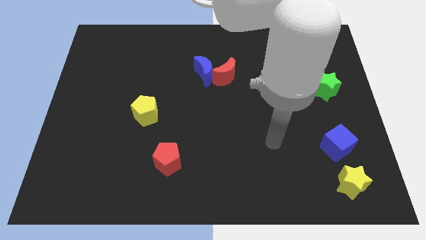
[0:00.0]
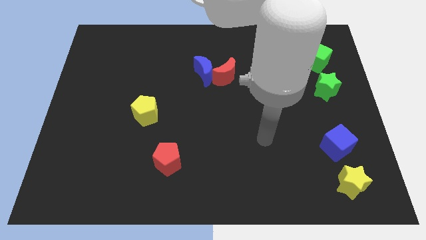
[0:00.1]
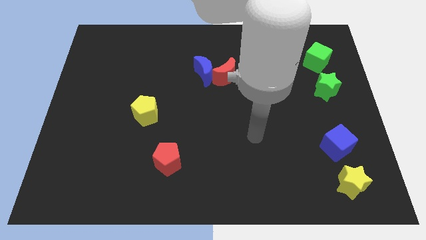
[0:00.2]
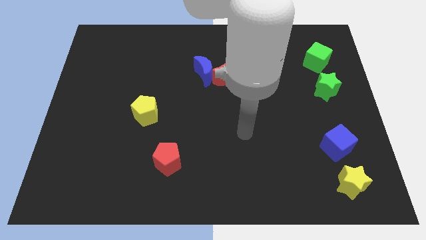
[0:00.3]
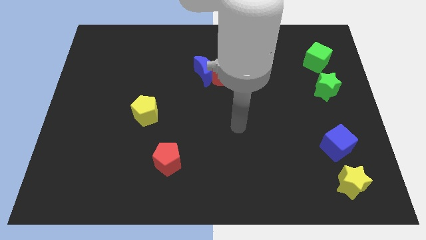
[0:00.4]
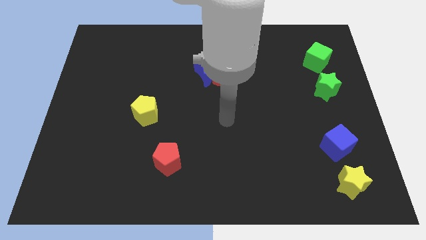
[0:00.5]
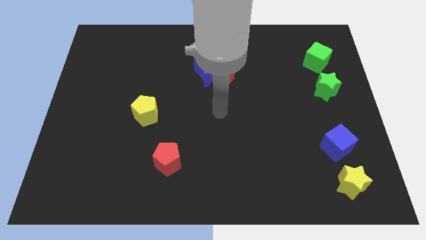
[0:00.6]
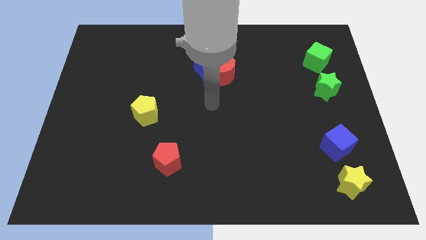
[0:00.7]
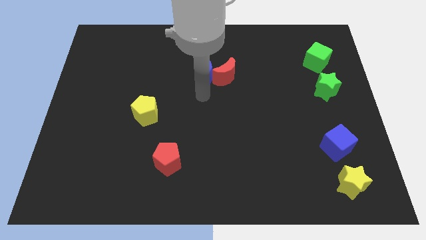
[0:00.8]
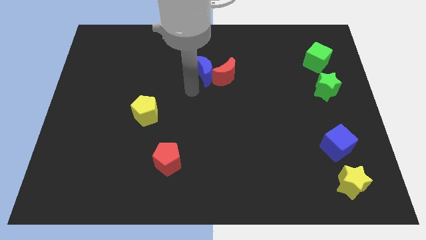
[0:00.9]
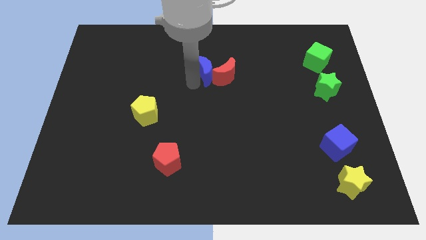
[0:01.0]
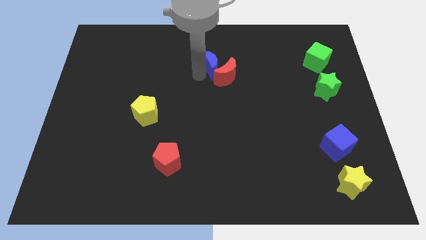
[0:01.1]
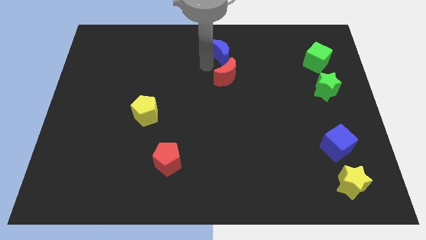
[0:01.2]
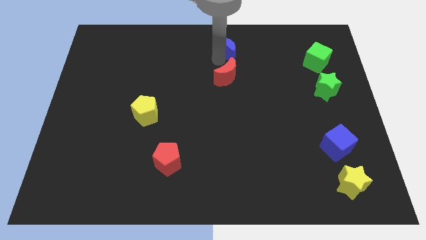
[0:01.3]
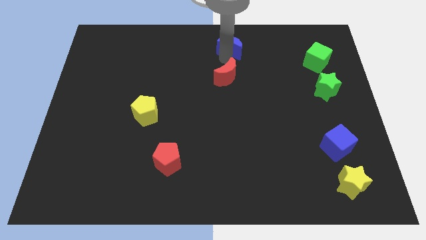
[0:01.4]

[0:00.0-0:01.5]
pull the red moon apart from the blue moon

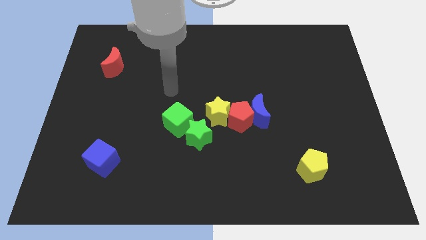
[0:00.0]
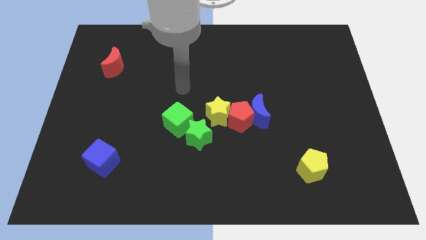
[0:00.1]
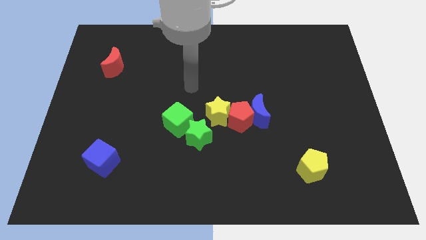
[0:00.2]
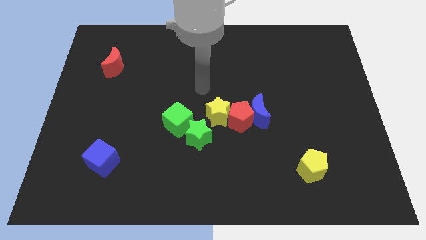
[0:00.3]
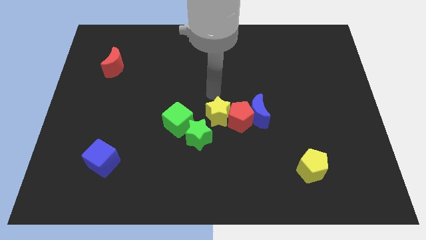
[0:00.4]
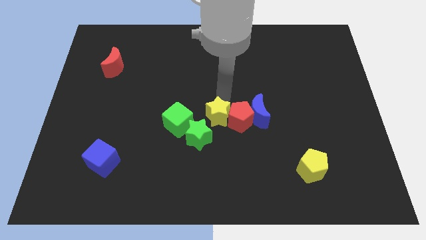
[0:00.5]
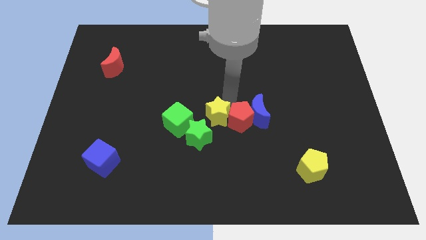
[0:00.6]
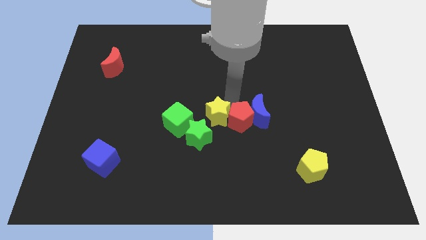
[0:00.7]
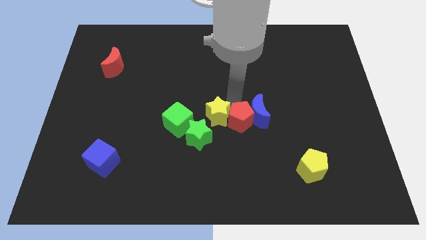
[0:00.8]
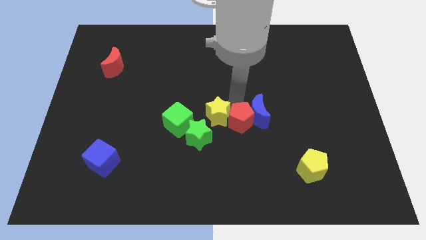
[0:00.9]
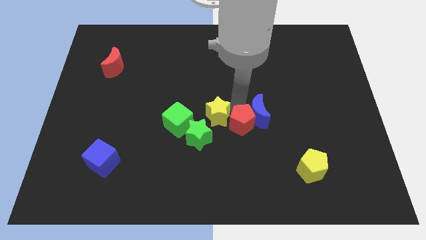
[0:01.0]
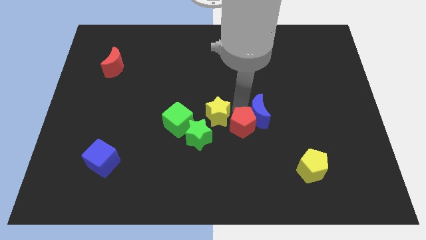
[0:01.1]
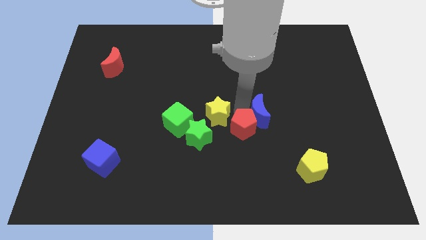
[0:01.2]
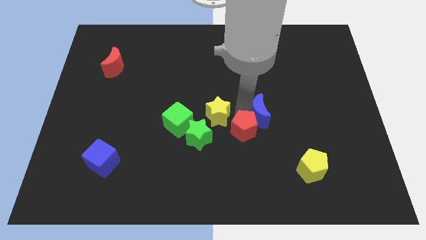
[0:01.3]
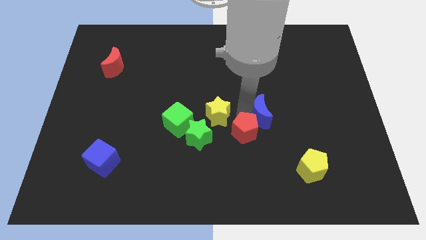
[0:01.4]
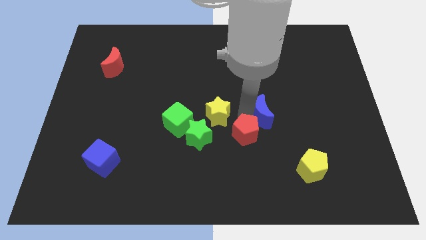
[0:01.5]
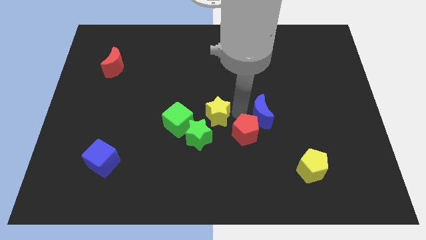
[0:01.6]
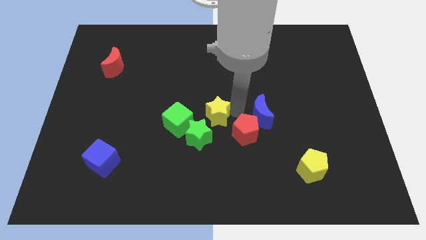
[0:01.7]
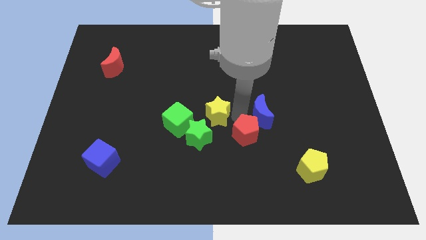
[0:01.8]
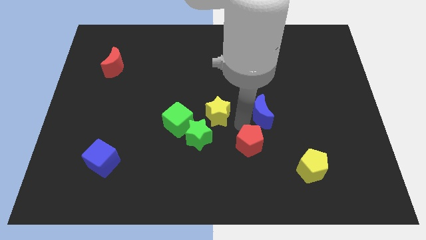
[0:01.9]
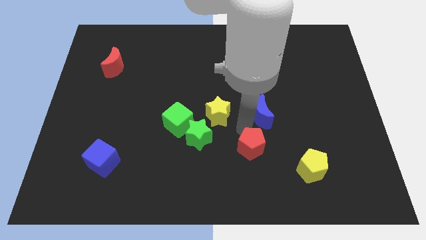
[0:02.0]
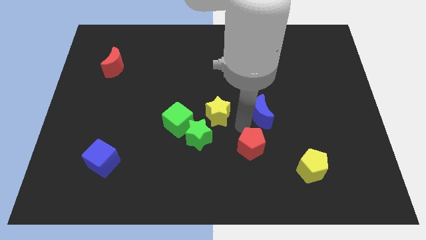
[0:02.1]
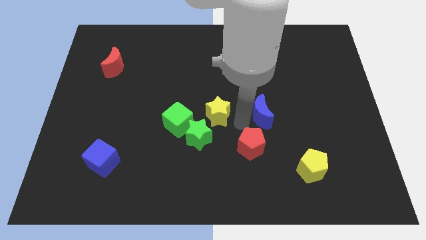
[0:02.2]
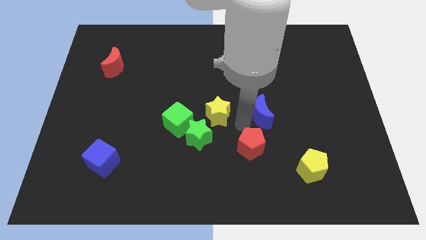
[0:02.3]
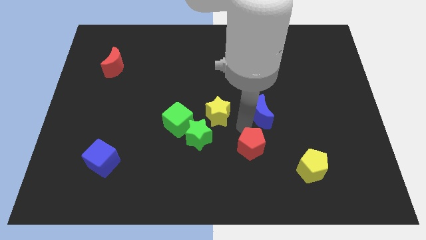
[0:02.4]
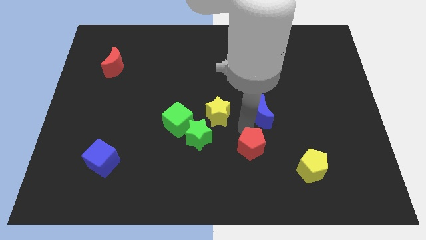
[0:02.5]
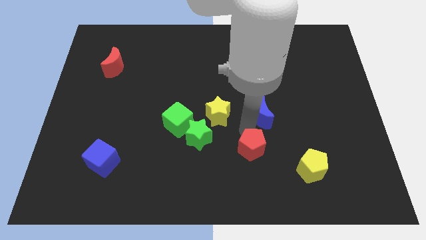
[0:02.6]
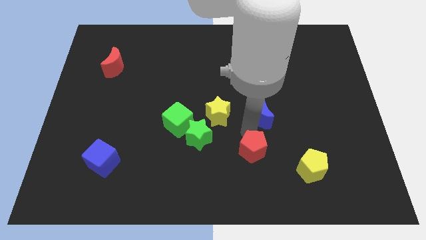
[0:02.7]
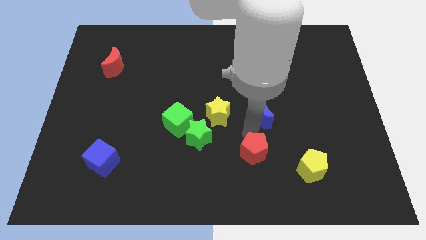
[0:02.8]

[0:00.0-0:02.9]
separate the red pentagon from the blue moon and yellow star

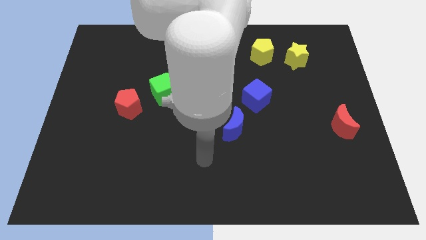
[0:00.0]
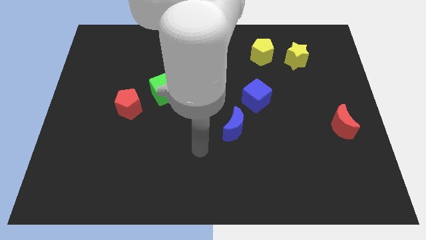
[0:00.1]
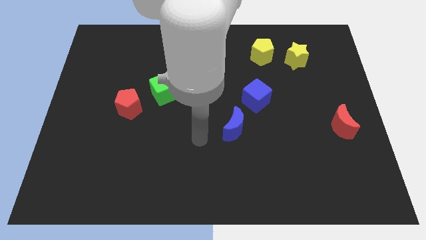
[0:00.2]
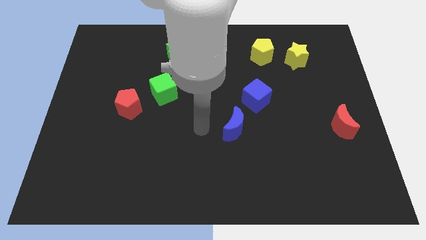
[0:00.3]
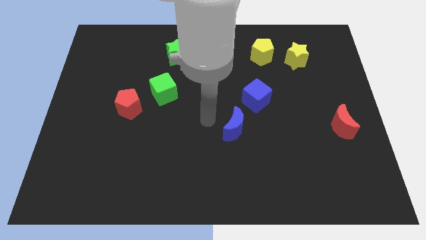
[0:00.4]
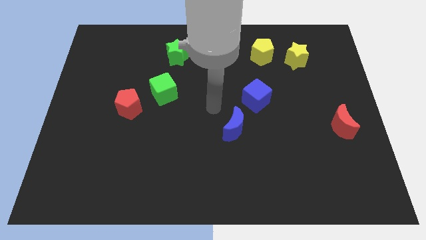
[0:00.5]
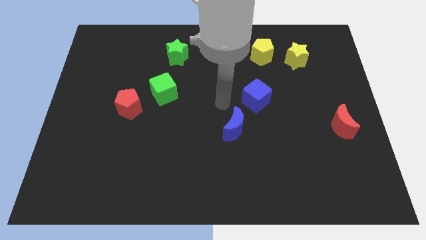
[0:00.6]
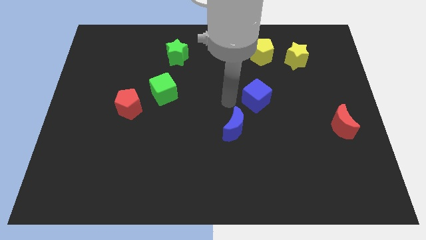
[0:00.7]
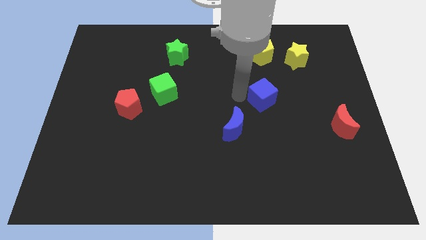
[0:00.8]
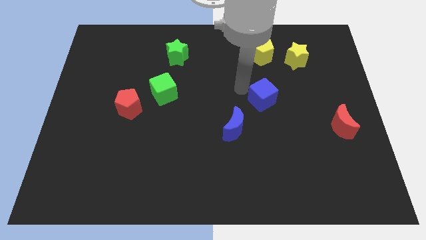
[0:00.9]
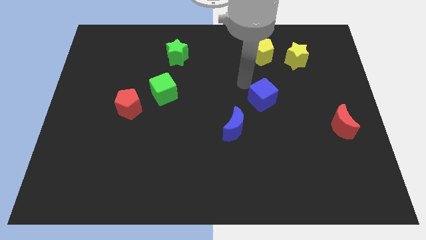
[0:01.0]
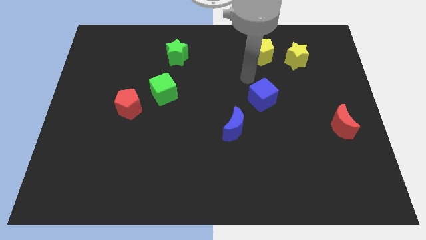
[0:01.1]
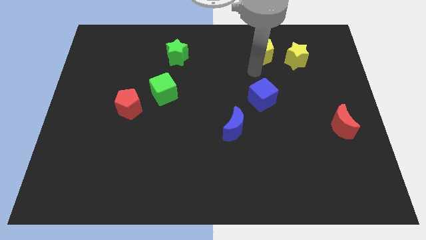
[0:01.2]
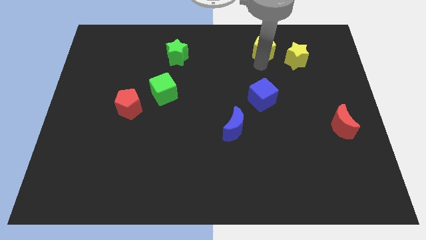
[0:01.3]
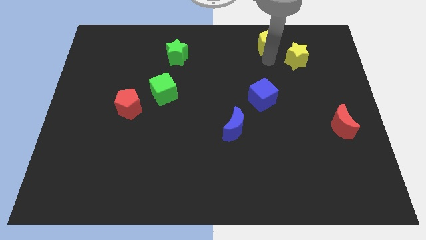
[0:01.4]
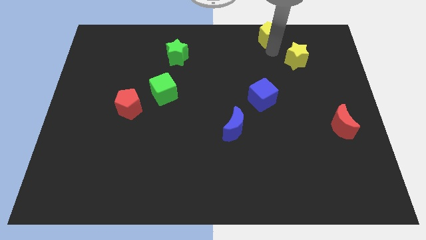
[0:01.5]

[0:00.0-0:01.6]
move the yellow star away from the yellow pentagon

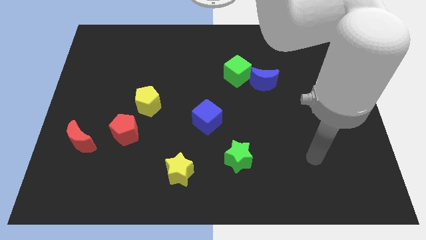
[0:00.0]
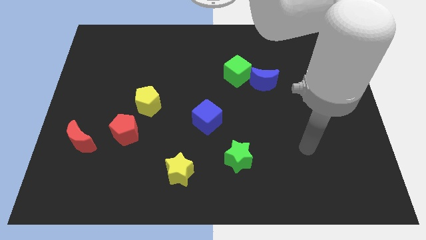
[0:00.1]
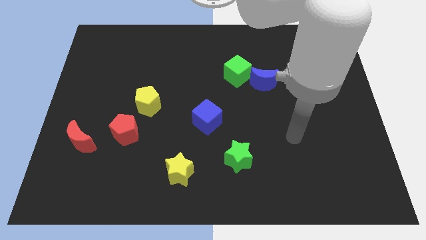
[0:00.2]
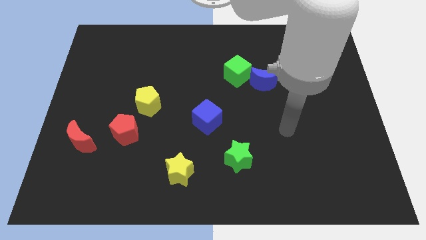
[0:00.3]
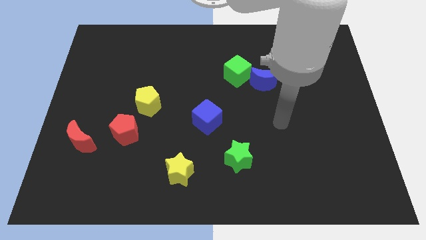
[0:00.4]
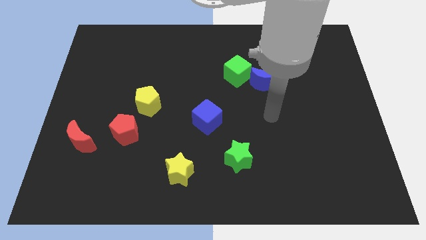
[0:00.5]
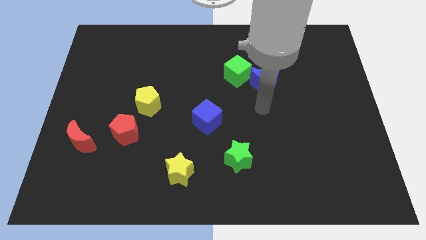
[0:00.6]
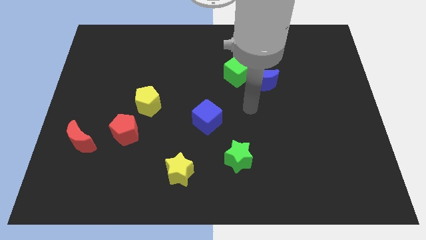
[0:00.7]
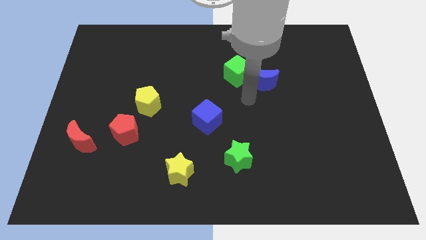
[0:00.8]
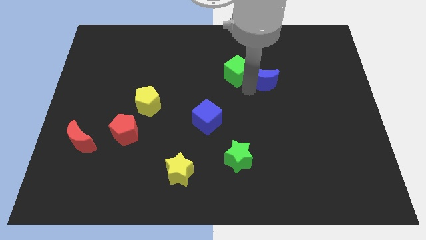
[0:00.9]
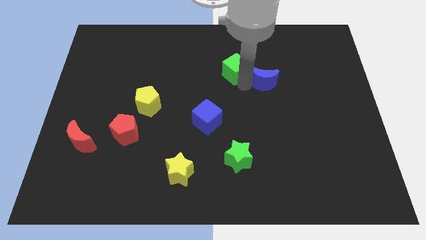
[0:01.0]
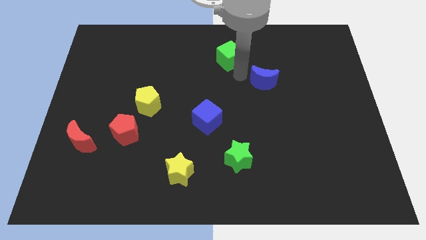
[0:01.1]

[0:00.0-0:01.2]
move the blue moon away from the green cube

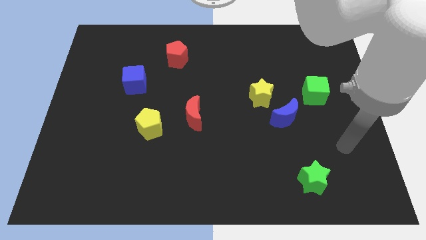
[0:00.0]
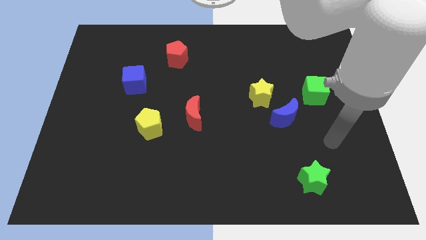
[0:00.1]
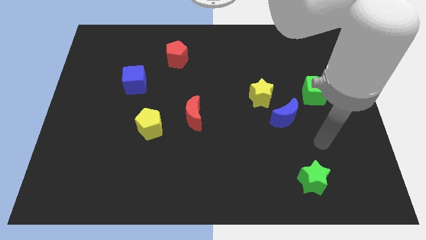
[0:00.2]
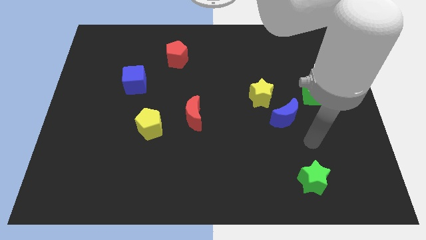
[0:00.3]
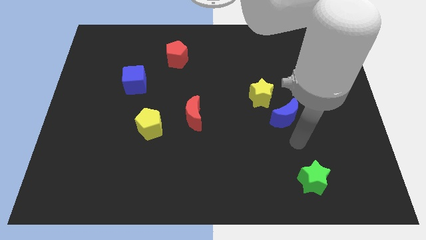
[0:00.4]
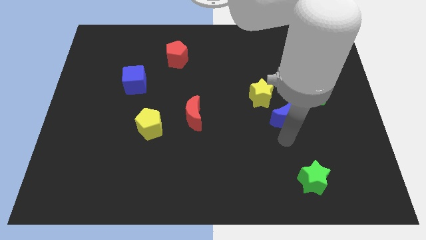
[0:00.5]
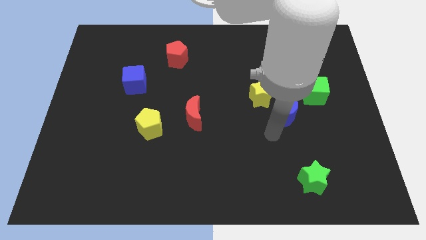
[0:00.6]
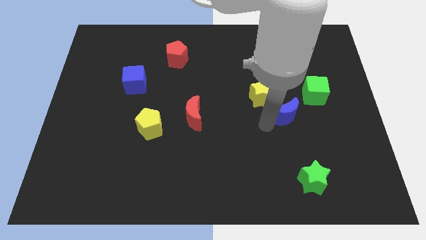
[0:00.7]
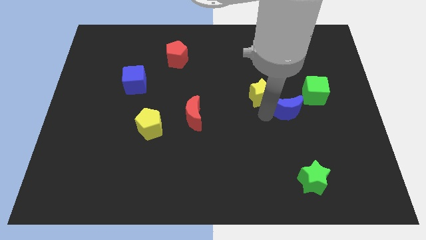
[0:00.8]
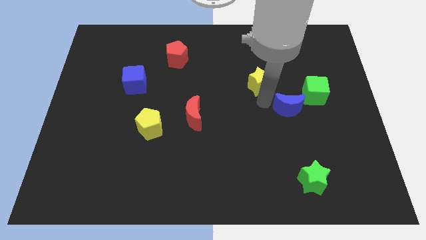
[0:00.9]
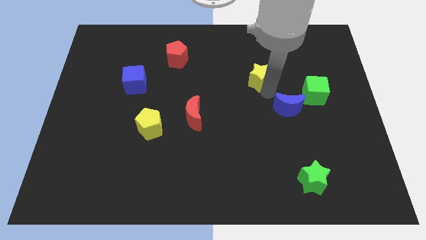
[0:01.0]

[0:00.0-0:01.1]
pull the blue moon apart from the yellow star

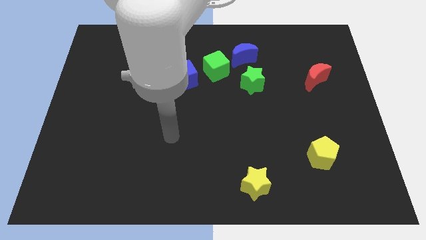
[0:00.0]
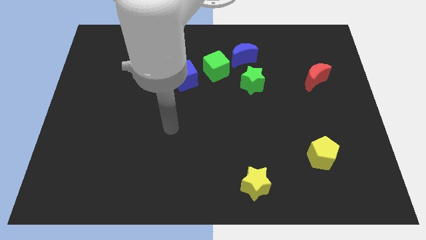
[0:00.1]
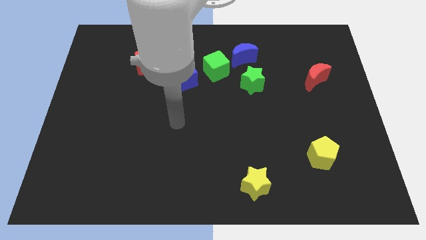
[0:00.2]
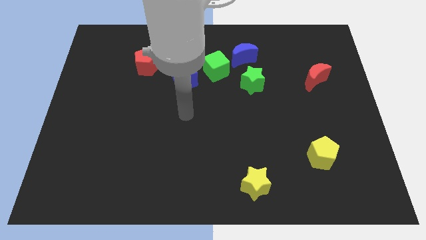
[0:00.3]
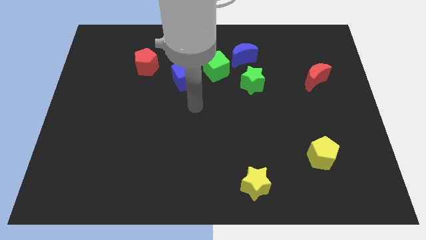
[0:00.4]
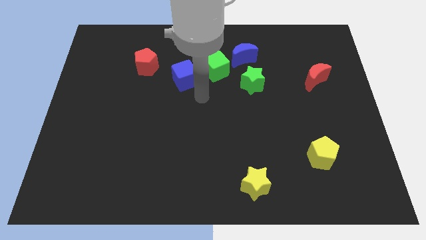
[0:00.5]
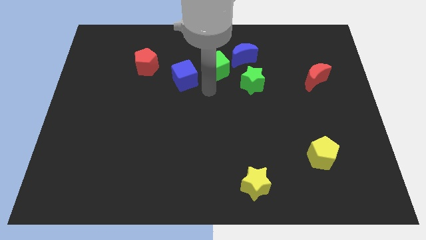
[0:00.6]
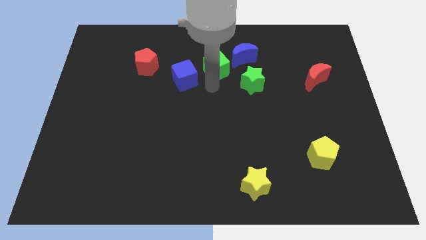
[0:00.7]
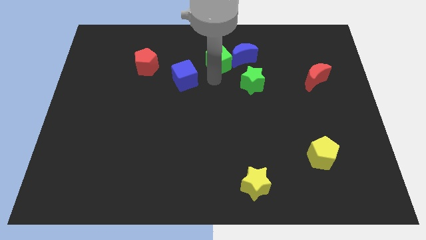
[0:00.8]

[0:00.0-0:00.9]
move the blue cube away from the green cube
